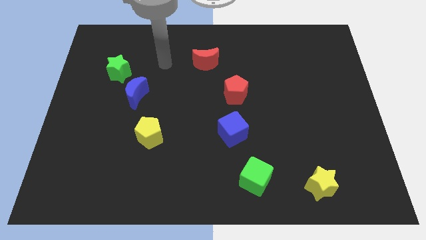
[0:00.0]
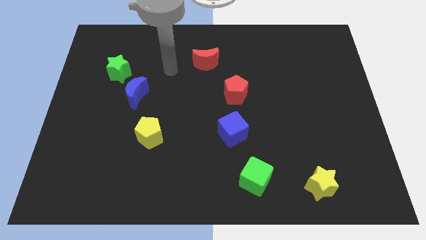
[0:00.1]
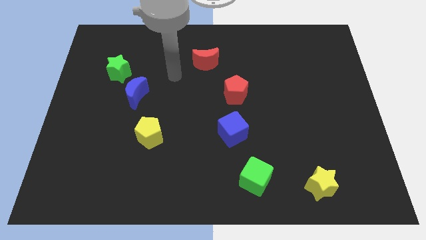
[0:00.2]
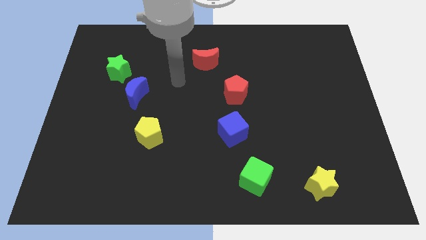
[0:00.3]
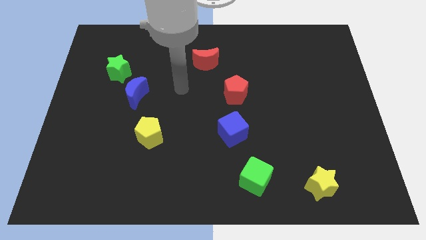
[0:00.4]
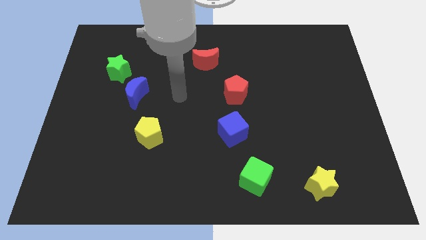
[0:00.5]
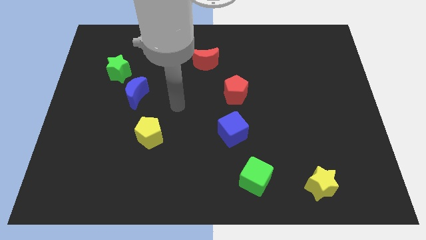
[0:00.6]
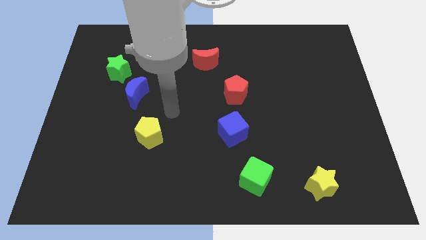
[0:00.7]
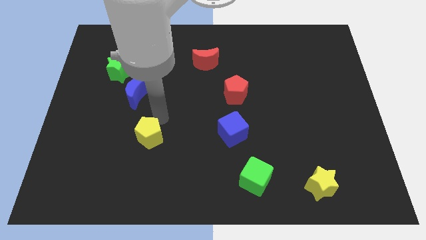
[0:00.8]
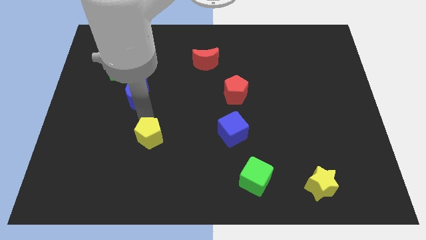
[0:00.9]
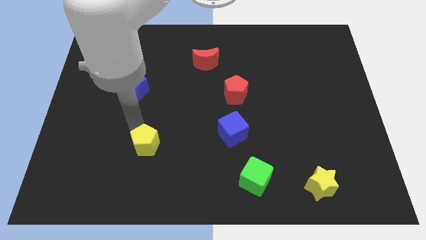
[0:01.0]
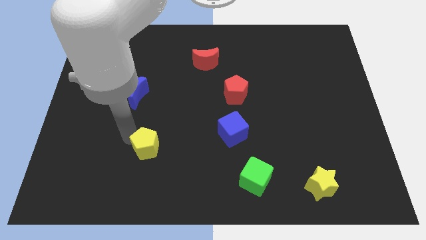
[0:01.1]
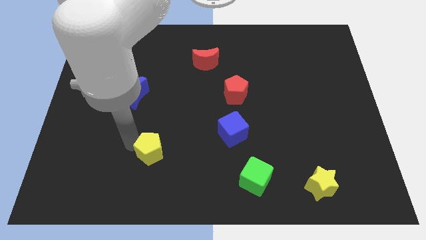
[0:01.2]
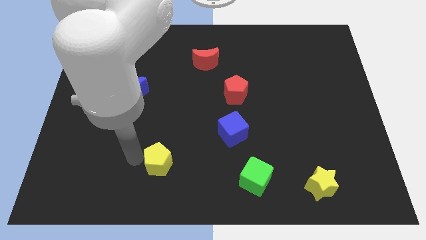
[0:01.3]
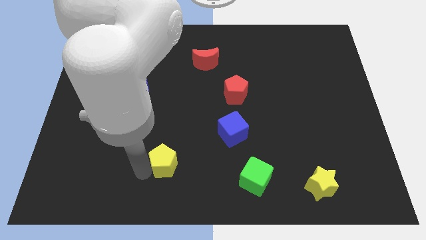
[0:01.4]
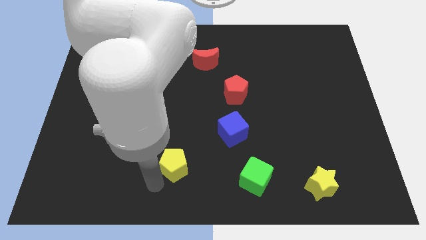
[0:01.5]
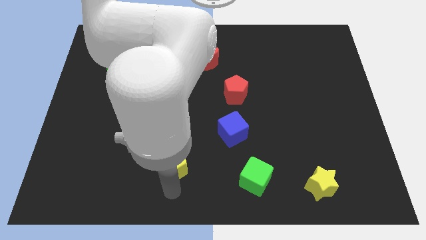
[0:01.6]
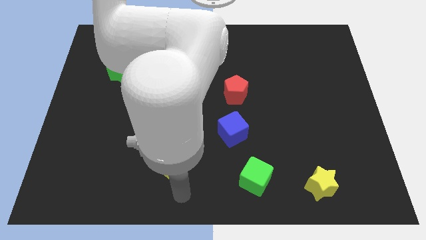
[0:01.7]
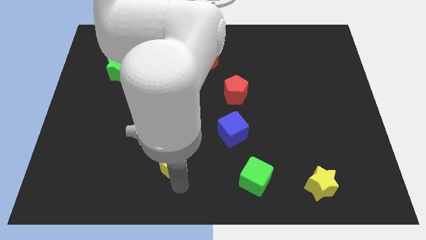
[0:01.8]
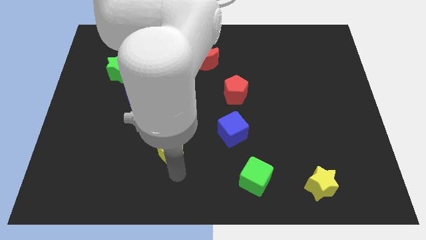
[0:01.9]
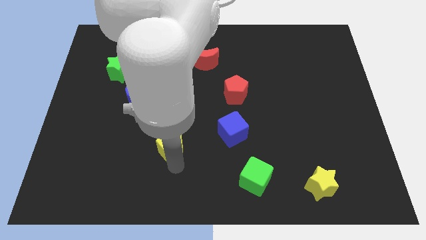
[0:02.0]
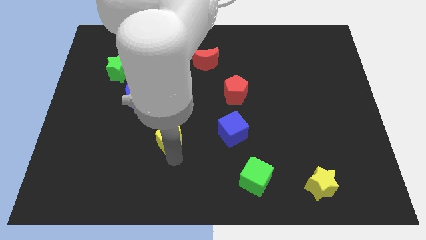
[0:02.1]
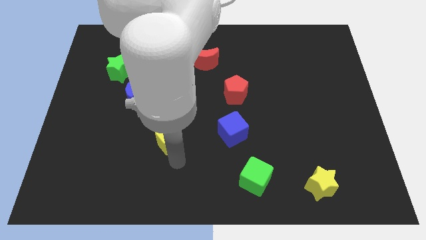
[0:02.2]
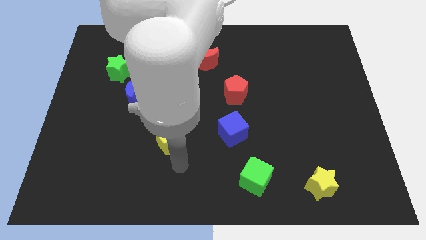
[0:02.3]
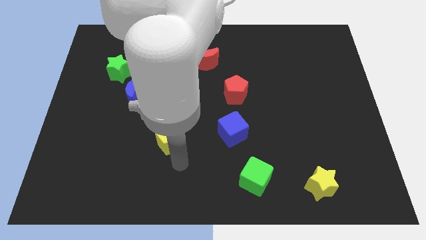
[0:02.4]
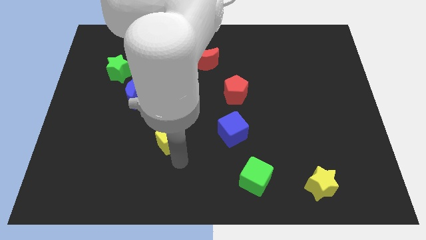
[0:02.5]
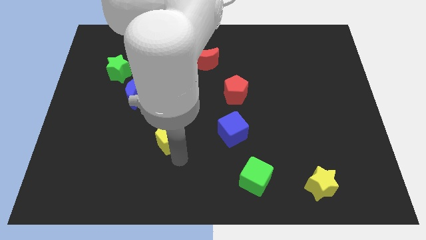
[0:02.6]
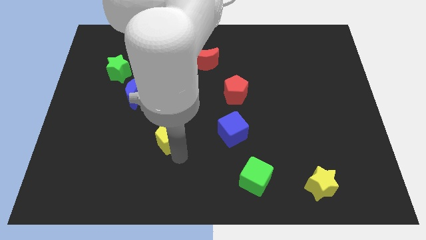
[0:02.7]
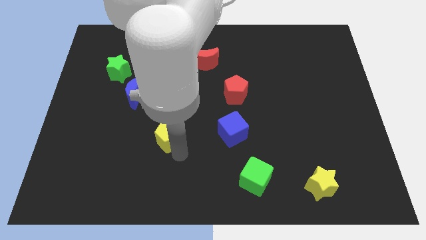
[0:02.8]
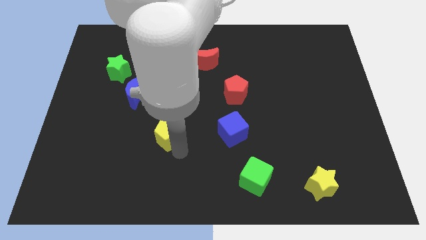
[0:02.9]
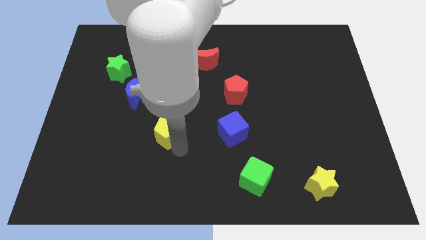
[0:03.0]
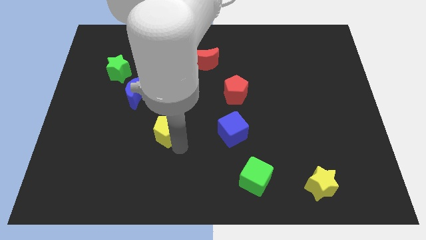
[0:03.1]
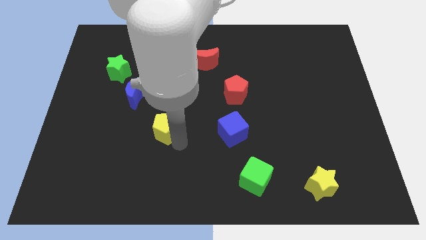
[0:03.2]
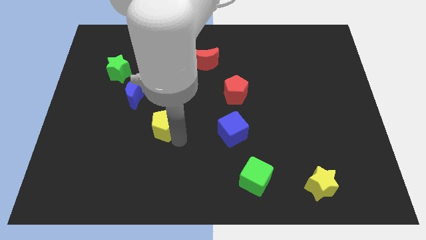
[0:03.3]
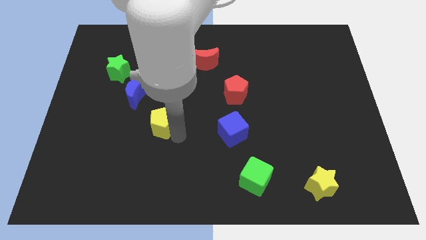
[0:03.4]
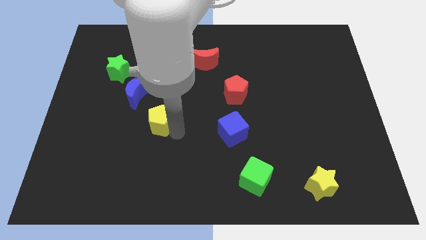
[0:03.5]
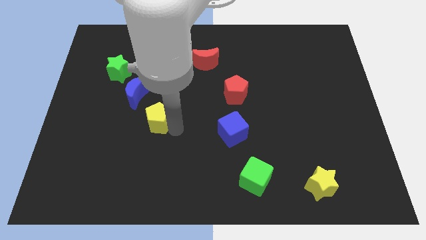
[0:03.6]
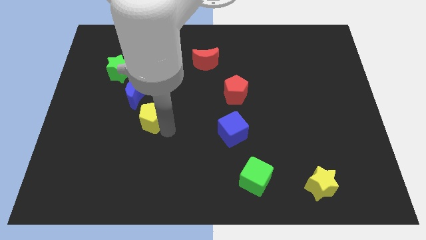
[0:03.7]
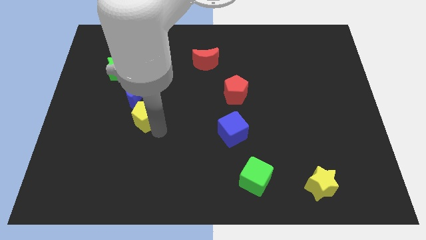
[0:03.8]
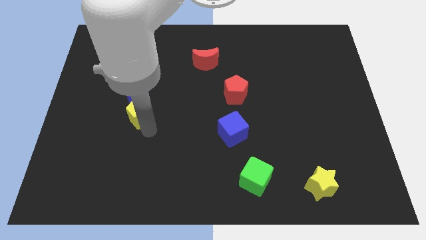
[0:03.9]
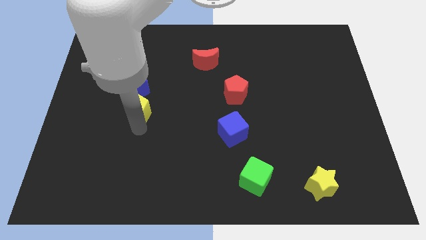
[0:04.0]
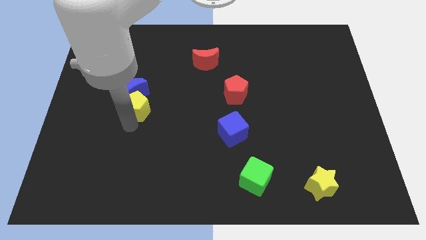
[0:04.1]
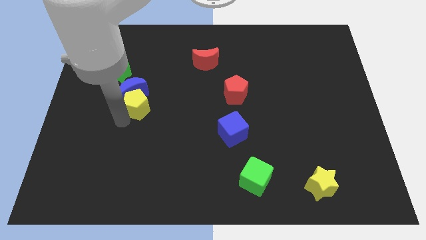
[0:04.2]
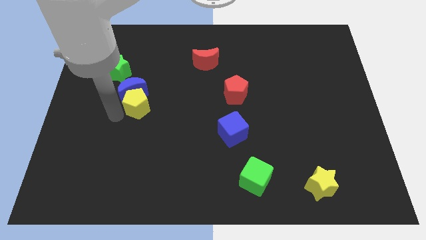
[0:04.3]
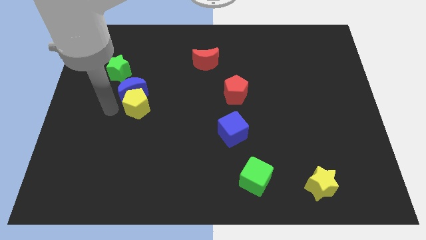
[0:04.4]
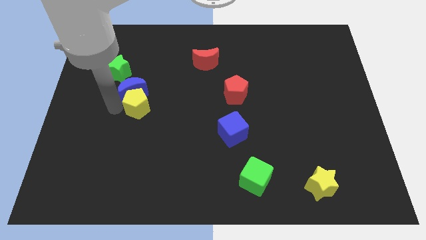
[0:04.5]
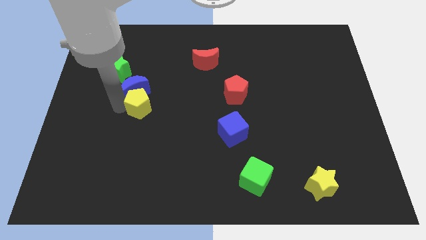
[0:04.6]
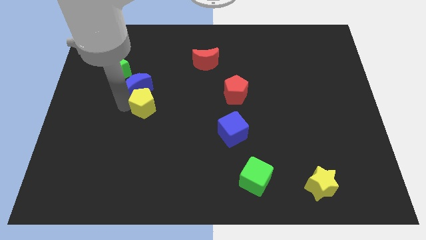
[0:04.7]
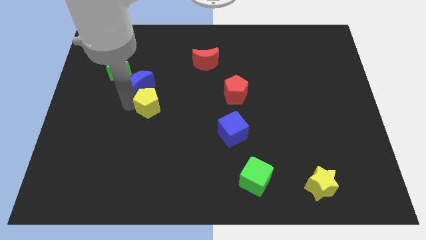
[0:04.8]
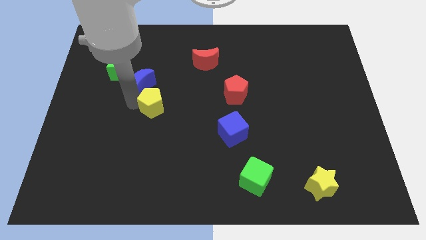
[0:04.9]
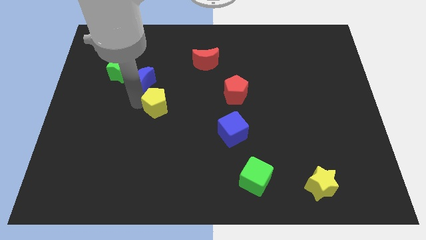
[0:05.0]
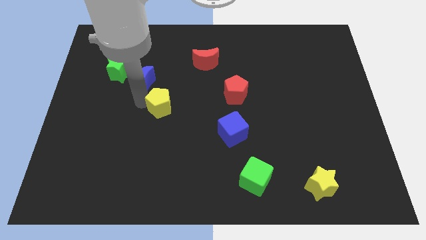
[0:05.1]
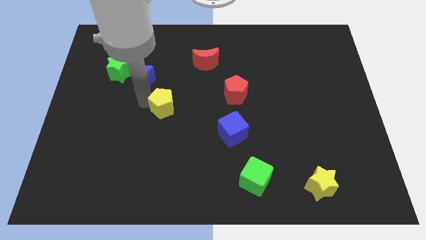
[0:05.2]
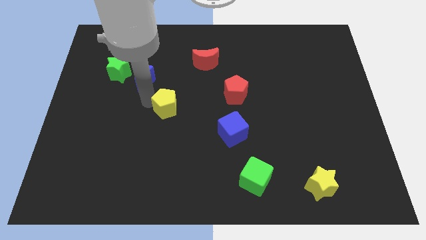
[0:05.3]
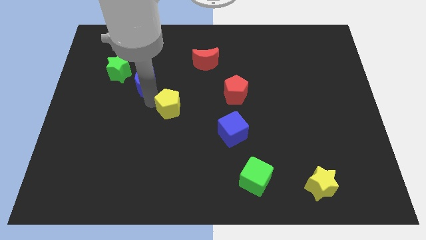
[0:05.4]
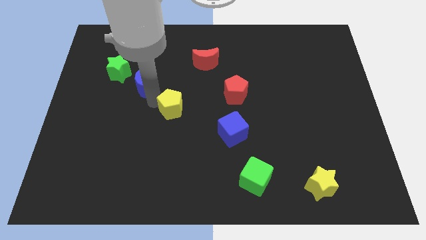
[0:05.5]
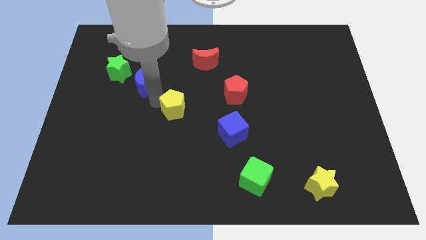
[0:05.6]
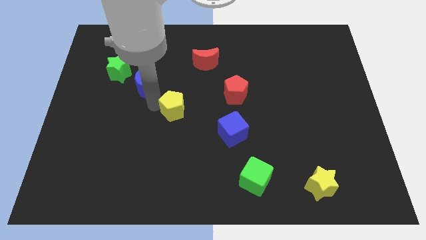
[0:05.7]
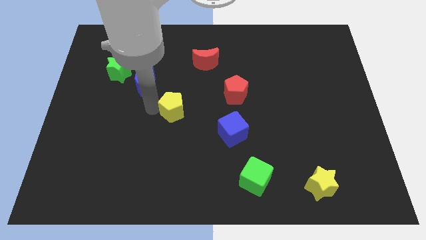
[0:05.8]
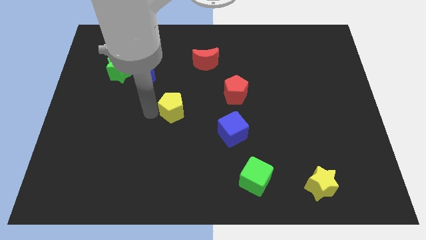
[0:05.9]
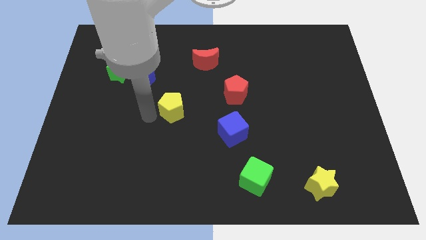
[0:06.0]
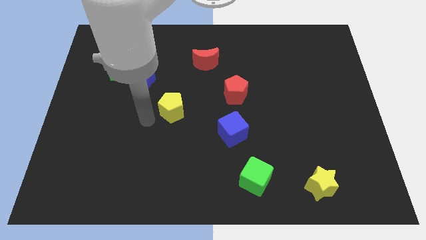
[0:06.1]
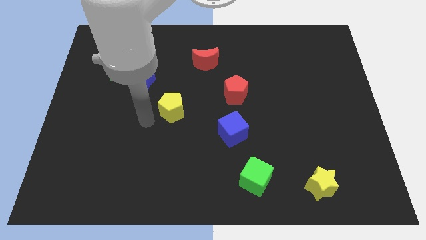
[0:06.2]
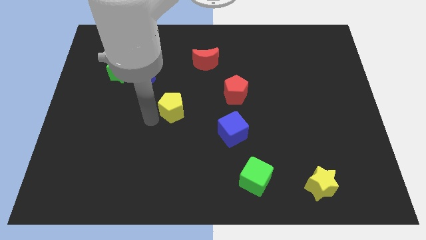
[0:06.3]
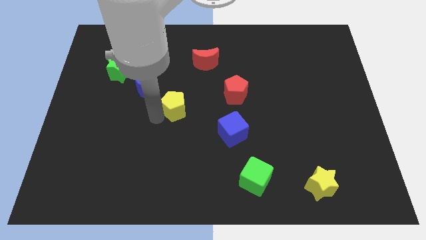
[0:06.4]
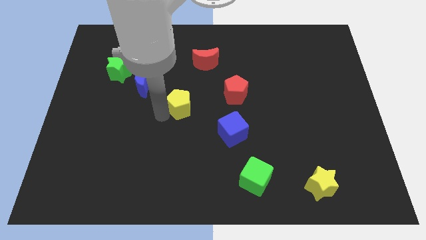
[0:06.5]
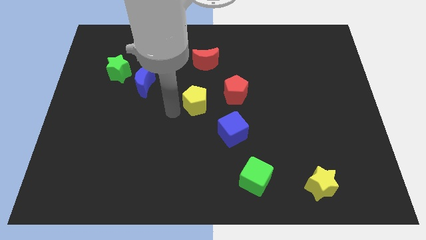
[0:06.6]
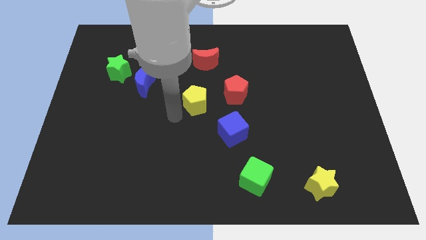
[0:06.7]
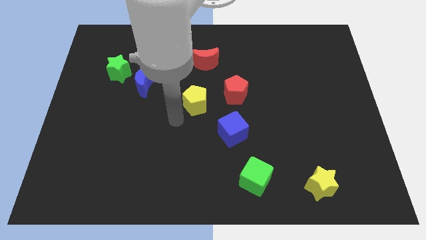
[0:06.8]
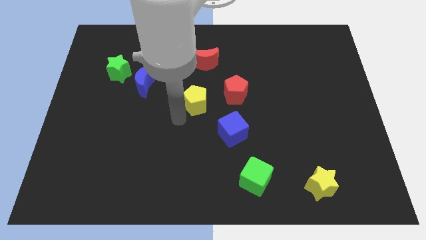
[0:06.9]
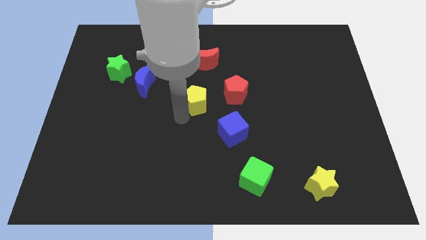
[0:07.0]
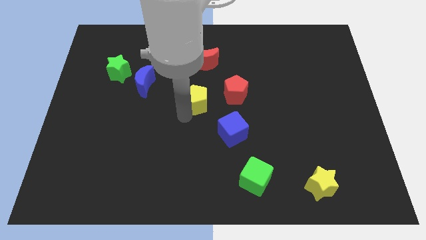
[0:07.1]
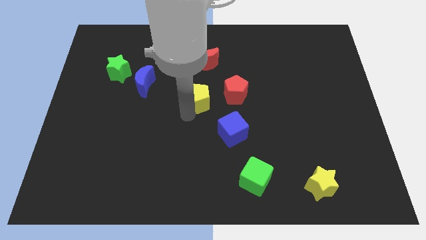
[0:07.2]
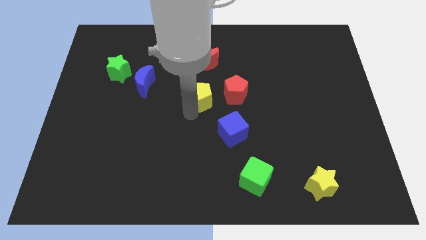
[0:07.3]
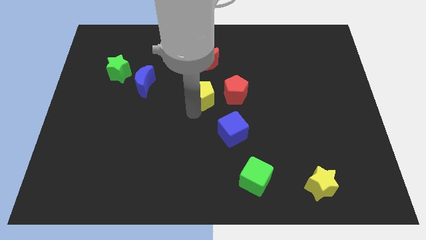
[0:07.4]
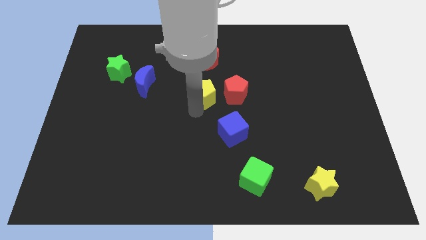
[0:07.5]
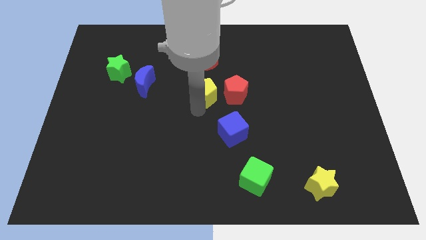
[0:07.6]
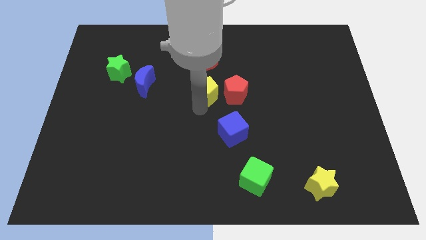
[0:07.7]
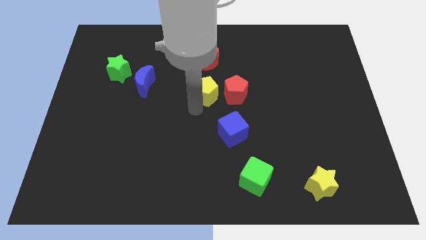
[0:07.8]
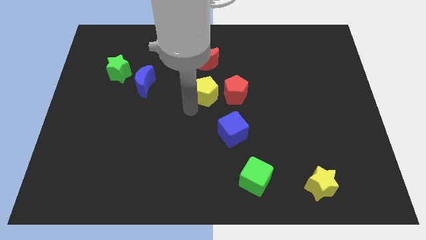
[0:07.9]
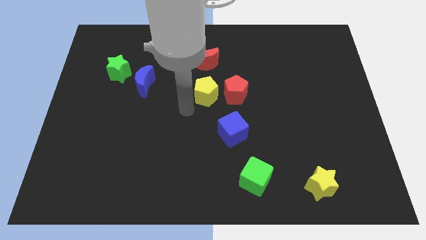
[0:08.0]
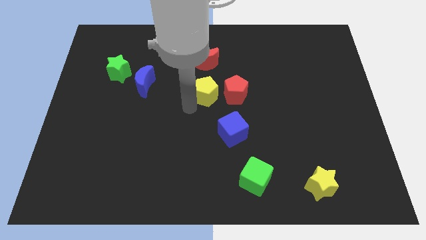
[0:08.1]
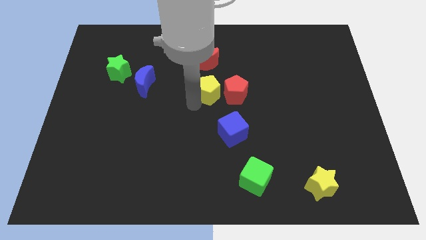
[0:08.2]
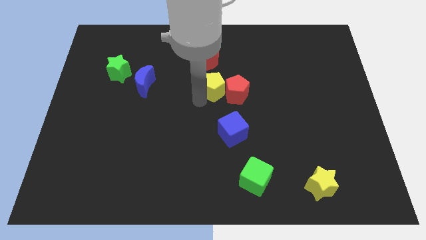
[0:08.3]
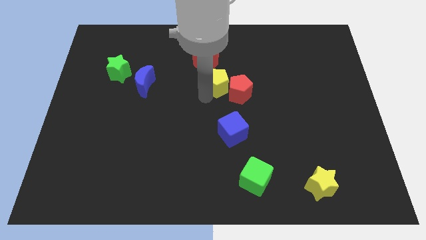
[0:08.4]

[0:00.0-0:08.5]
move the yellow pentagon diagonally down and to the right of the red moon
